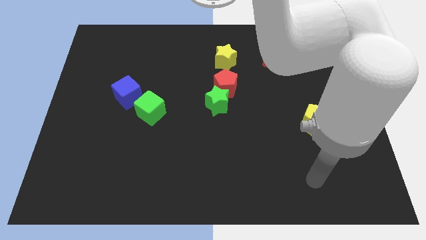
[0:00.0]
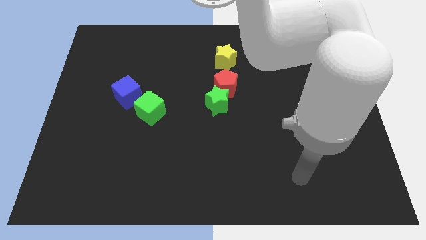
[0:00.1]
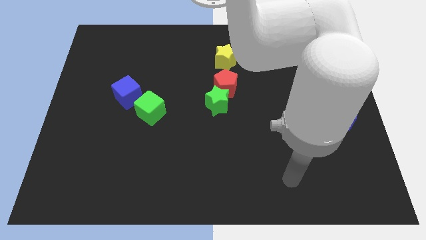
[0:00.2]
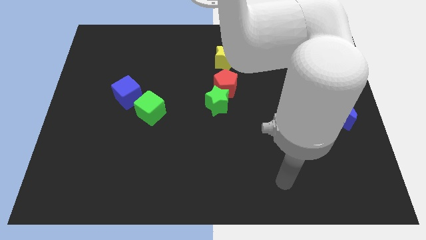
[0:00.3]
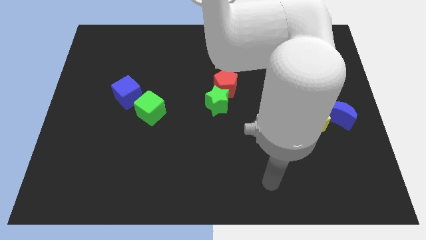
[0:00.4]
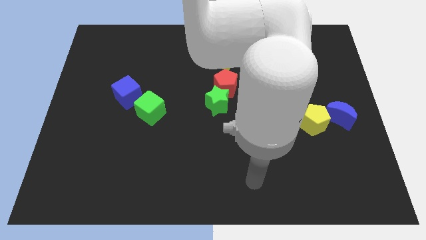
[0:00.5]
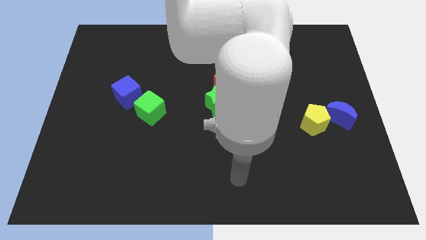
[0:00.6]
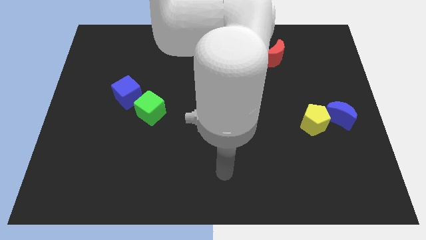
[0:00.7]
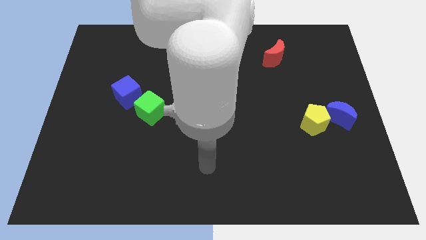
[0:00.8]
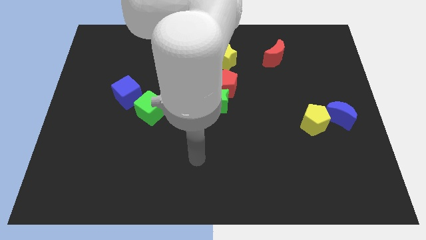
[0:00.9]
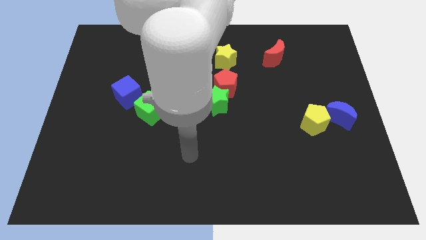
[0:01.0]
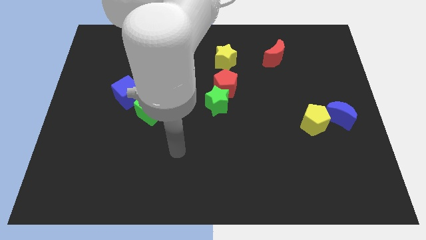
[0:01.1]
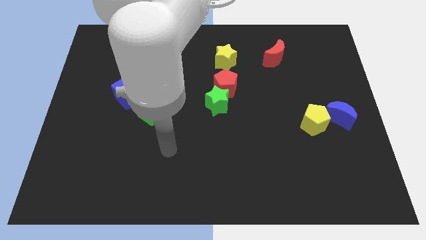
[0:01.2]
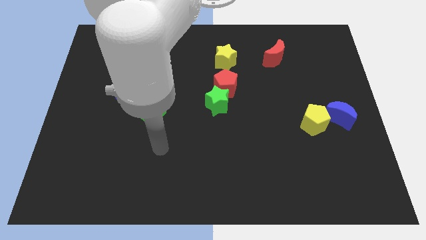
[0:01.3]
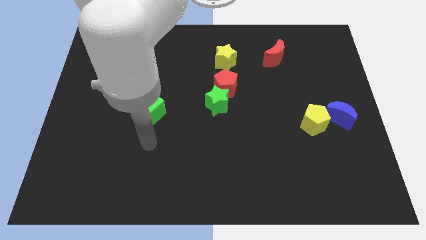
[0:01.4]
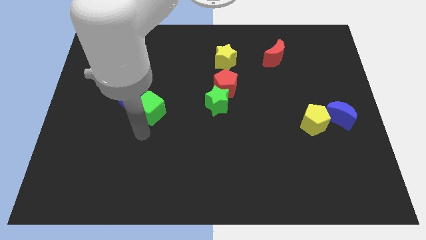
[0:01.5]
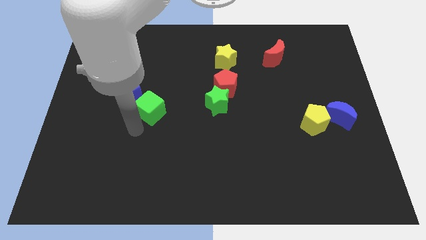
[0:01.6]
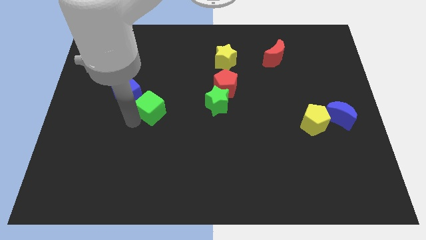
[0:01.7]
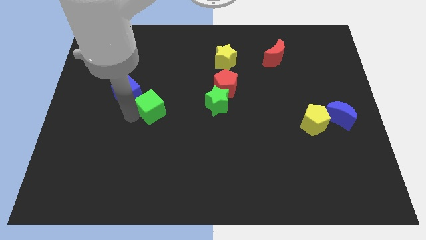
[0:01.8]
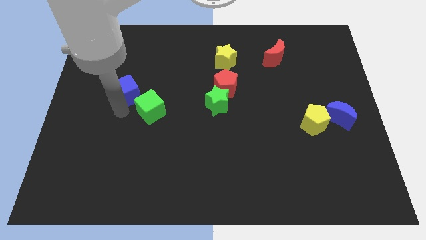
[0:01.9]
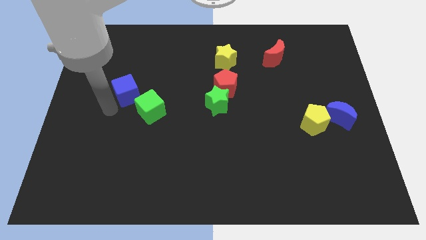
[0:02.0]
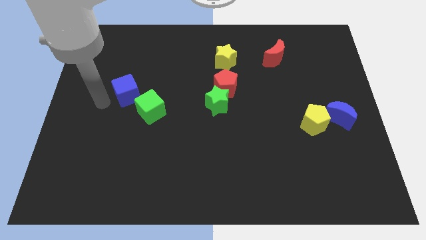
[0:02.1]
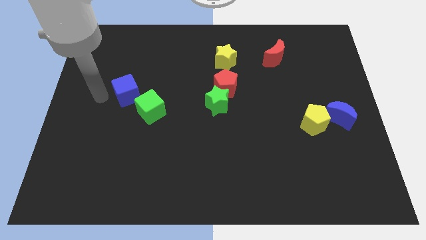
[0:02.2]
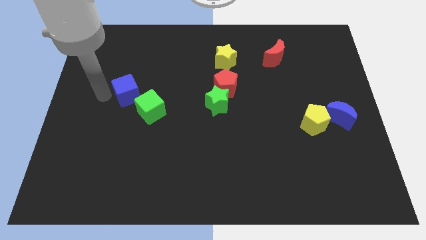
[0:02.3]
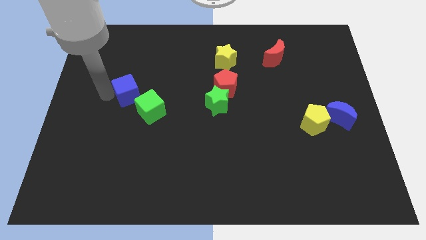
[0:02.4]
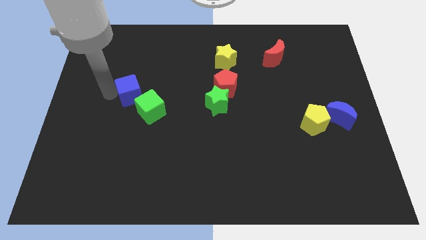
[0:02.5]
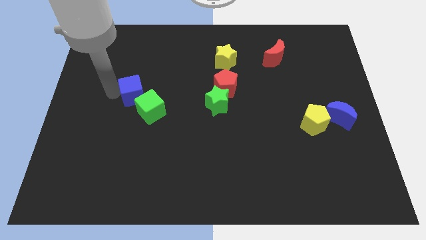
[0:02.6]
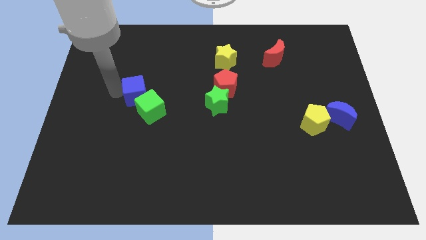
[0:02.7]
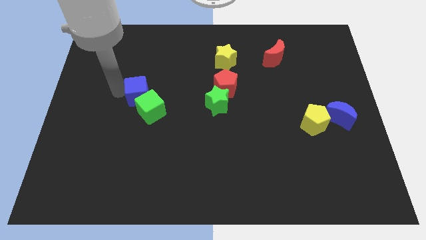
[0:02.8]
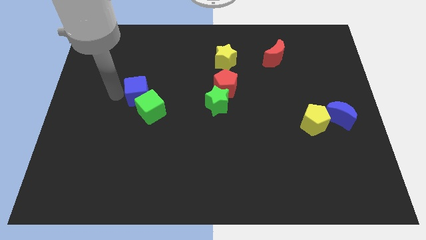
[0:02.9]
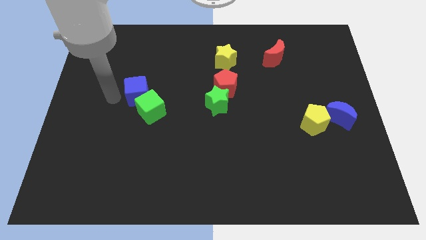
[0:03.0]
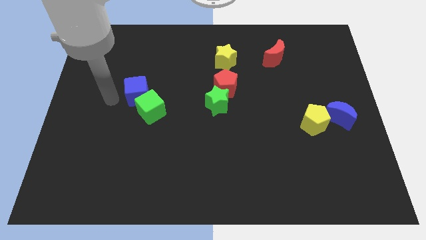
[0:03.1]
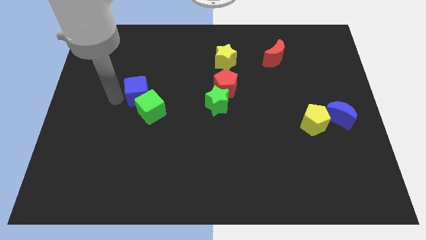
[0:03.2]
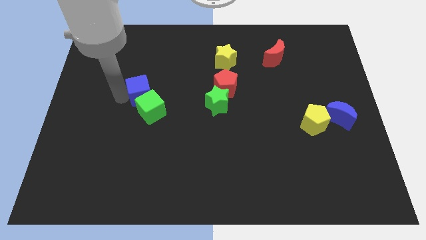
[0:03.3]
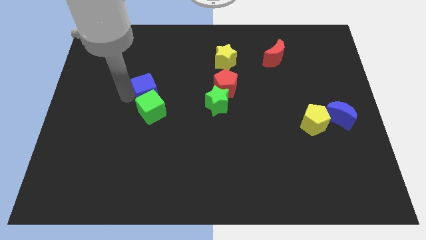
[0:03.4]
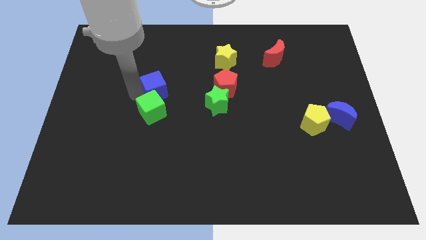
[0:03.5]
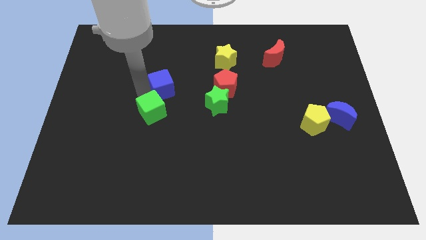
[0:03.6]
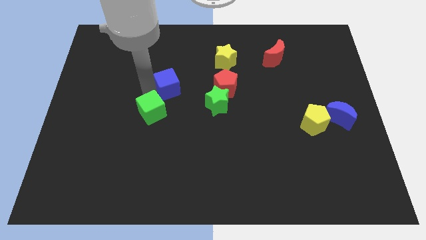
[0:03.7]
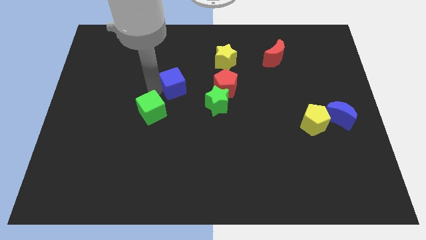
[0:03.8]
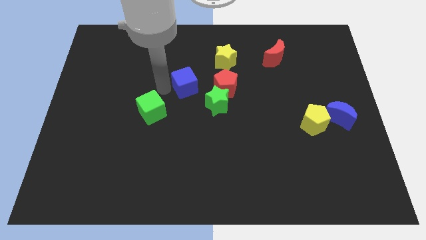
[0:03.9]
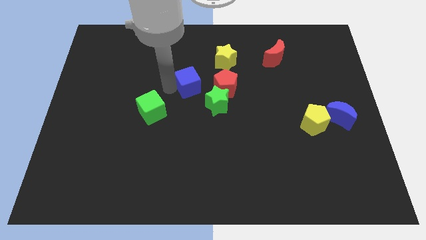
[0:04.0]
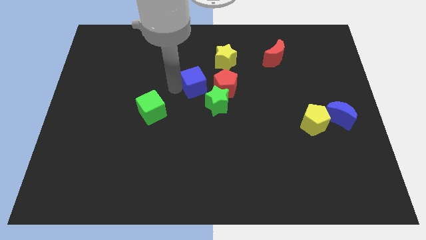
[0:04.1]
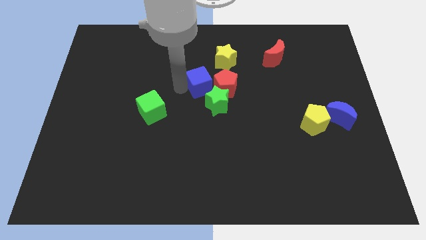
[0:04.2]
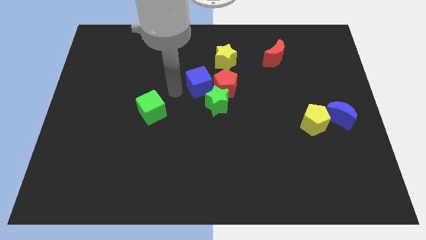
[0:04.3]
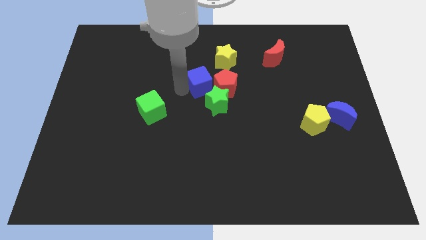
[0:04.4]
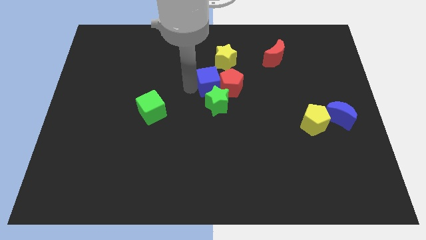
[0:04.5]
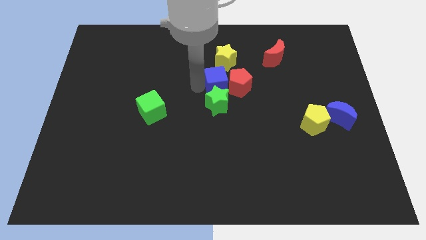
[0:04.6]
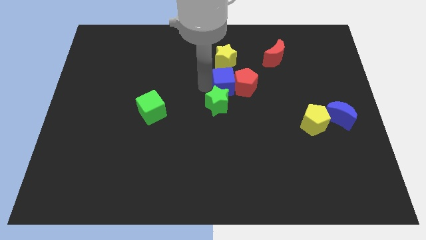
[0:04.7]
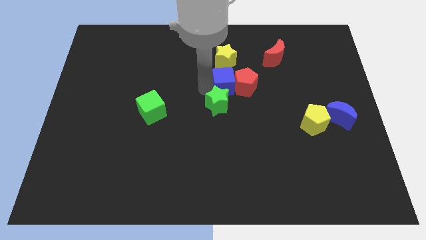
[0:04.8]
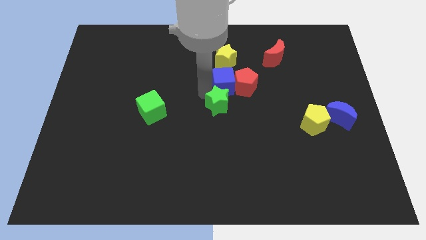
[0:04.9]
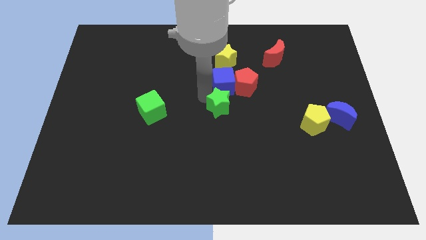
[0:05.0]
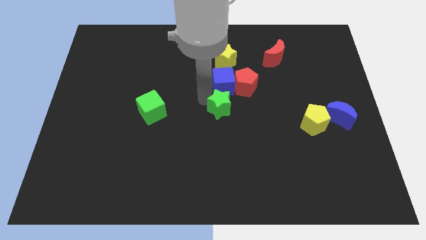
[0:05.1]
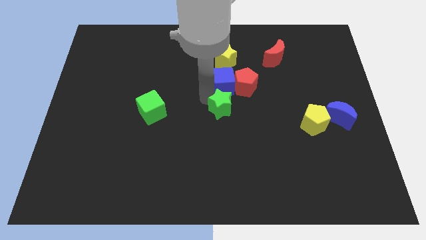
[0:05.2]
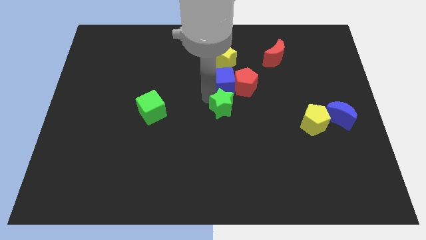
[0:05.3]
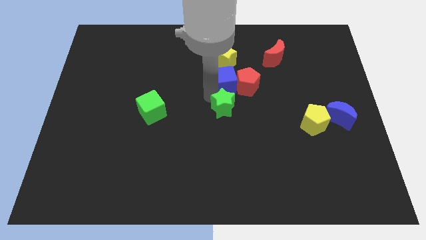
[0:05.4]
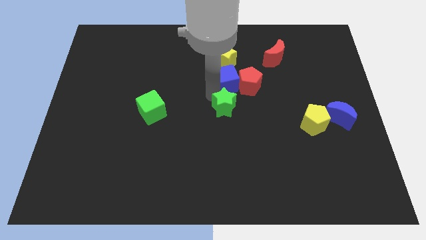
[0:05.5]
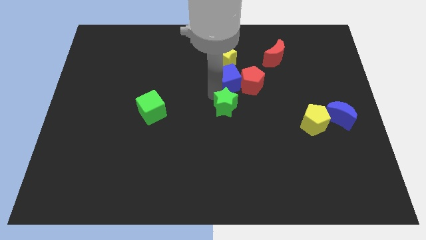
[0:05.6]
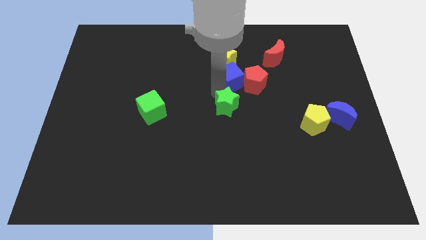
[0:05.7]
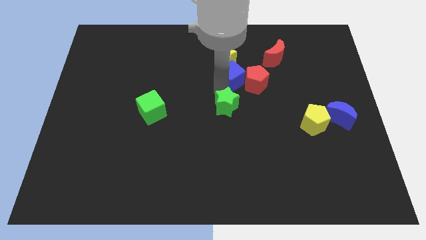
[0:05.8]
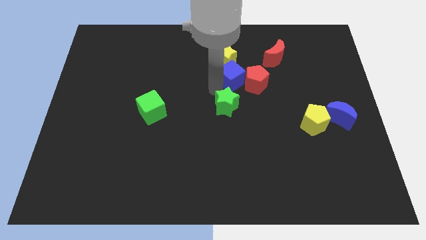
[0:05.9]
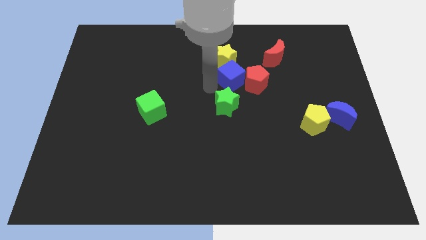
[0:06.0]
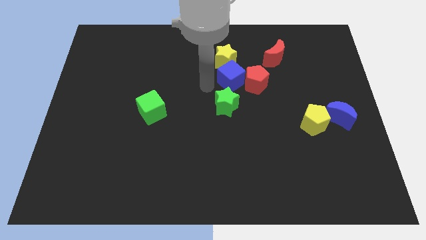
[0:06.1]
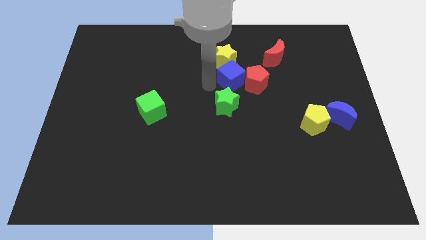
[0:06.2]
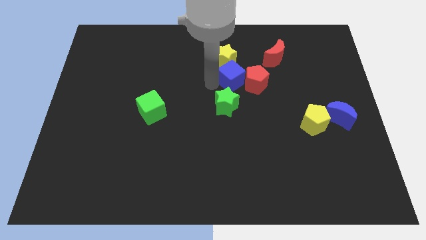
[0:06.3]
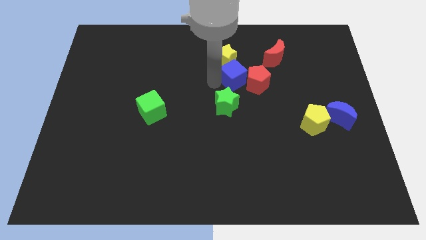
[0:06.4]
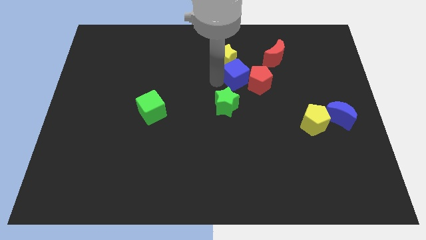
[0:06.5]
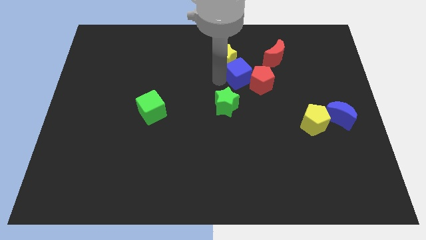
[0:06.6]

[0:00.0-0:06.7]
push the blue cube to the bottom left side of the red moon

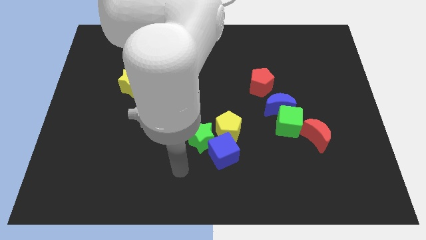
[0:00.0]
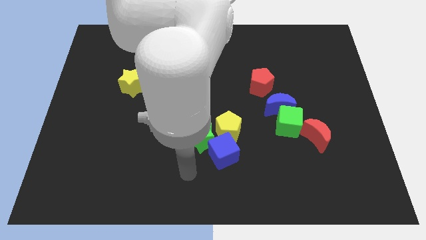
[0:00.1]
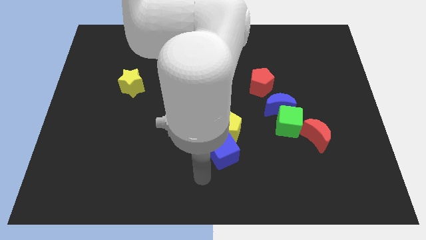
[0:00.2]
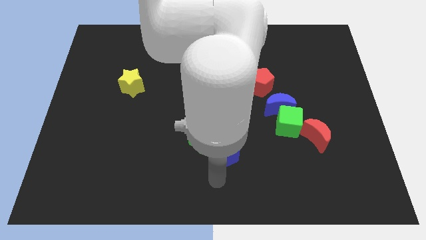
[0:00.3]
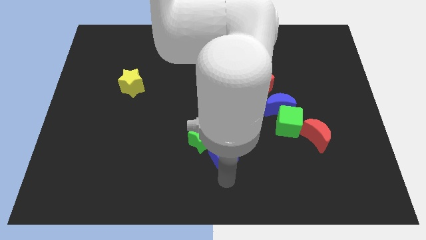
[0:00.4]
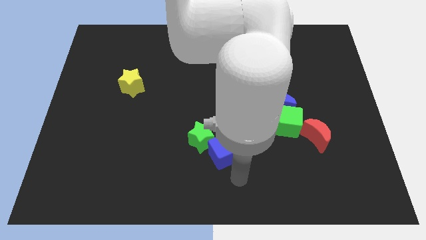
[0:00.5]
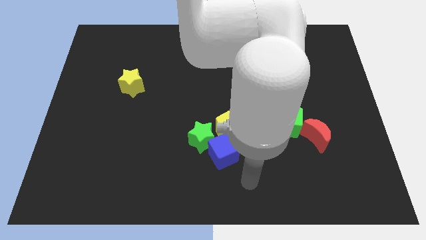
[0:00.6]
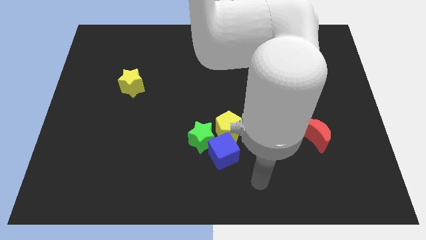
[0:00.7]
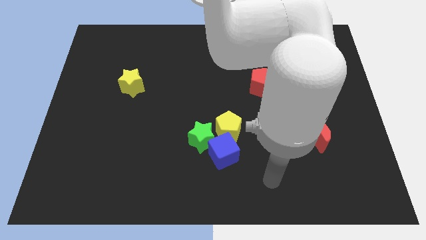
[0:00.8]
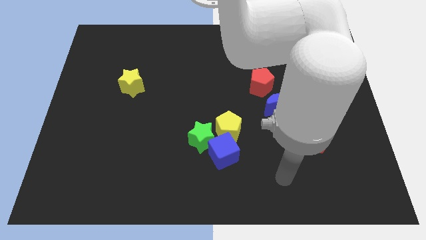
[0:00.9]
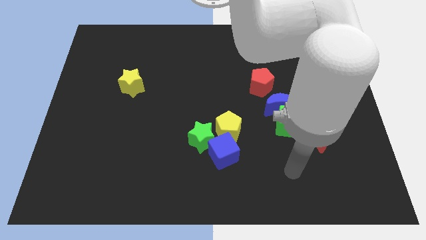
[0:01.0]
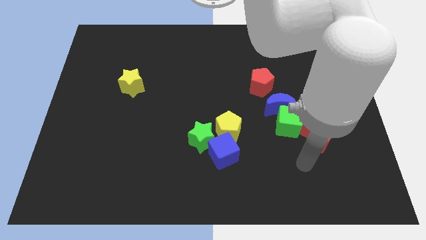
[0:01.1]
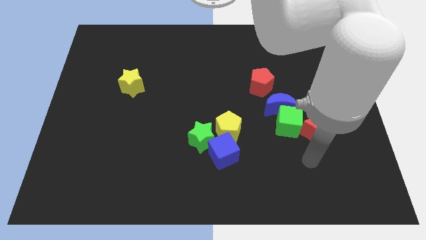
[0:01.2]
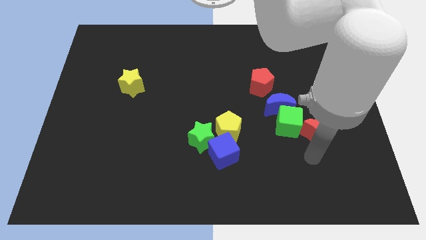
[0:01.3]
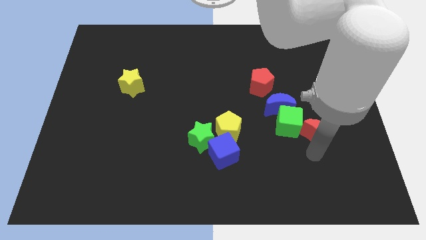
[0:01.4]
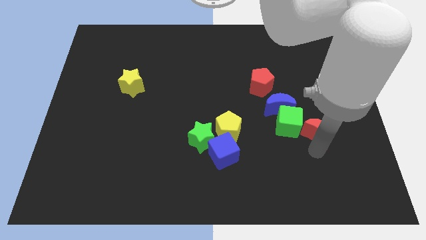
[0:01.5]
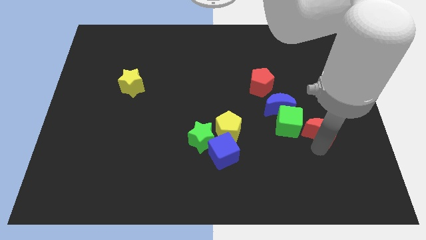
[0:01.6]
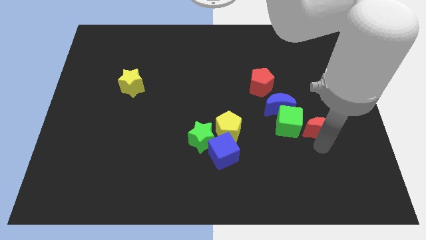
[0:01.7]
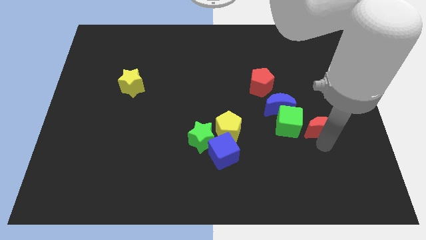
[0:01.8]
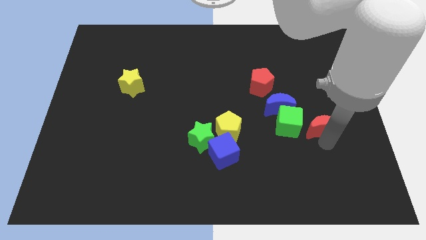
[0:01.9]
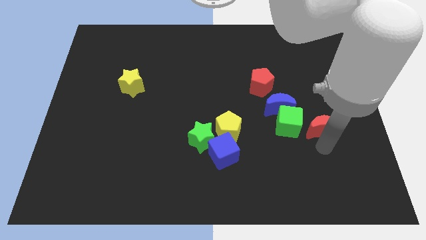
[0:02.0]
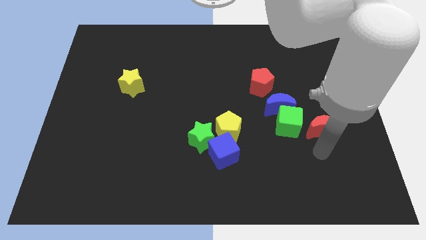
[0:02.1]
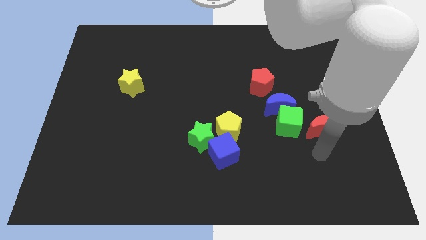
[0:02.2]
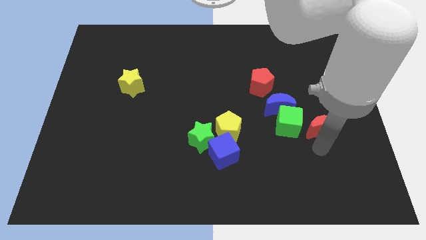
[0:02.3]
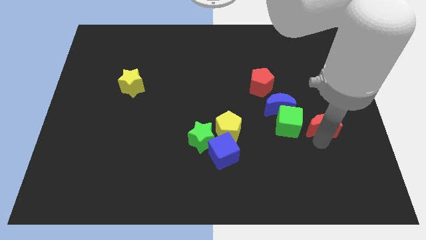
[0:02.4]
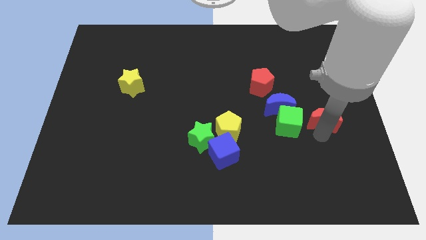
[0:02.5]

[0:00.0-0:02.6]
slide the red moon to the right side of the blue moon
